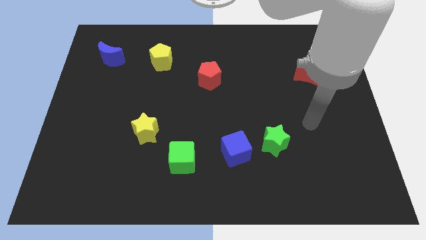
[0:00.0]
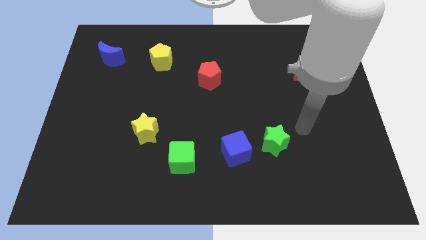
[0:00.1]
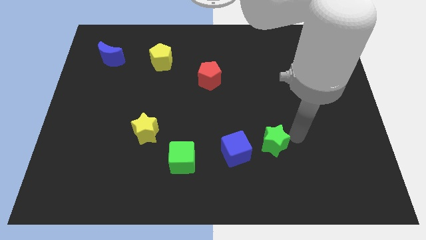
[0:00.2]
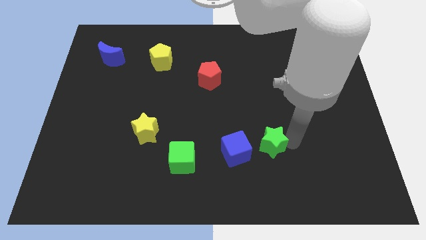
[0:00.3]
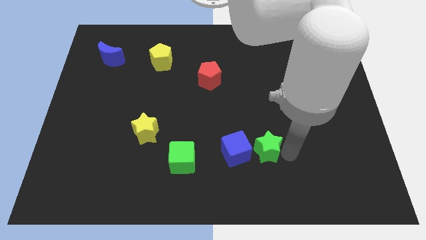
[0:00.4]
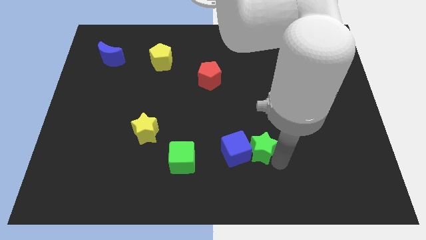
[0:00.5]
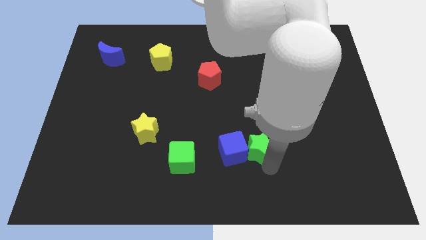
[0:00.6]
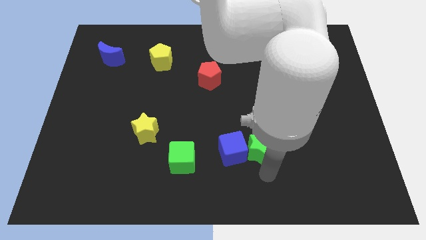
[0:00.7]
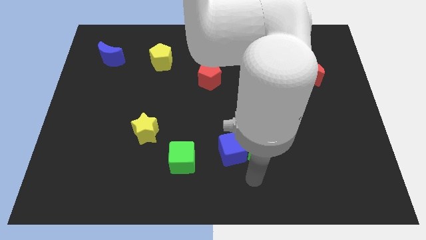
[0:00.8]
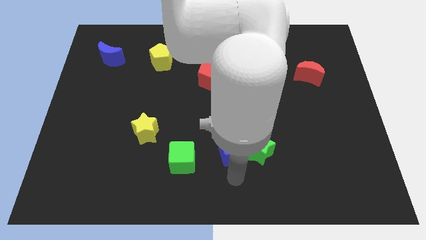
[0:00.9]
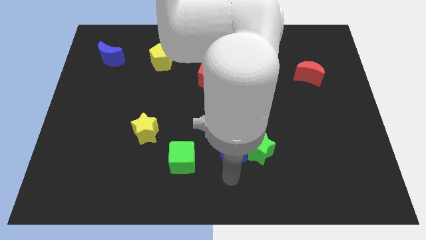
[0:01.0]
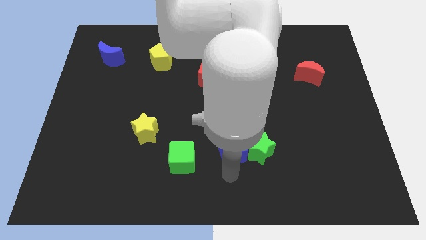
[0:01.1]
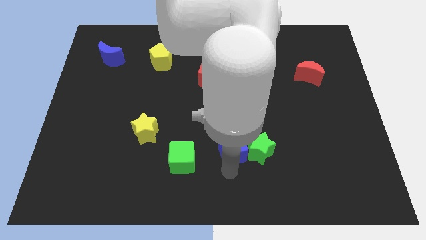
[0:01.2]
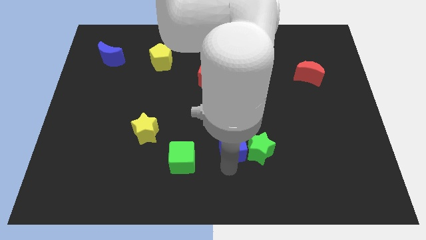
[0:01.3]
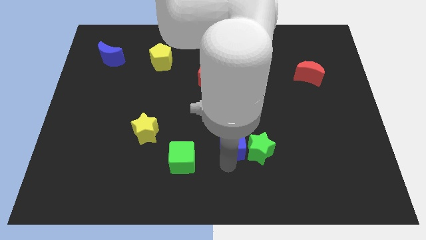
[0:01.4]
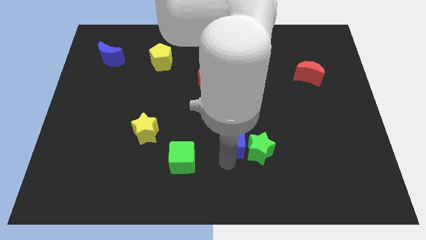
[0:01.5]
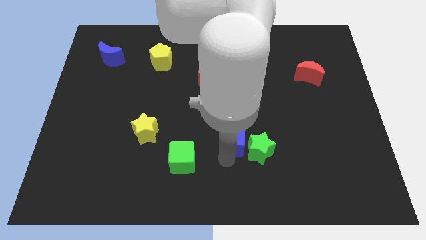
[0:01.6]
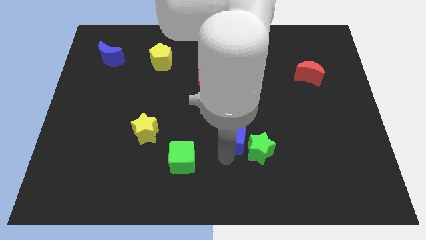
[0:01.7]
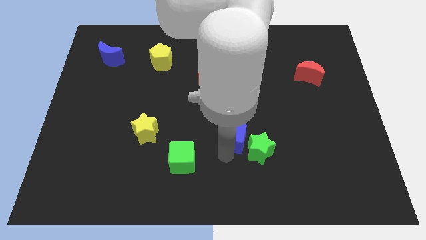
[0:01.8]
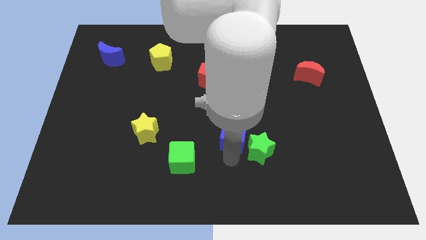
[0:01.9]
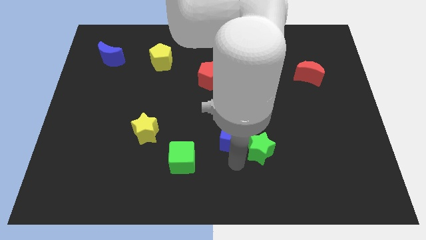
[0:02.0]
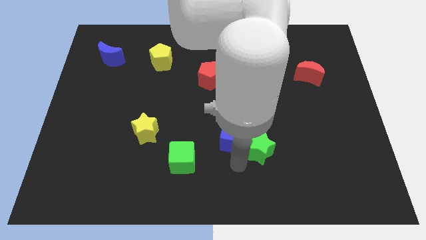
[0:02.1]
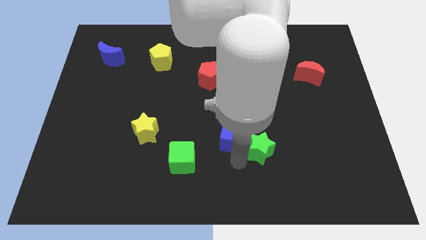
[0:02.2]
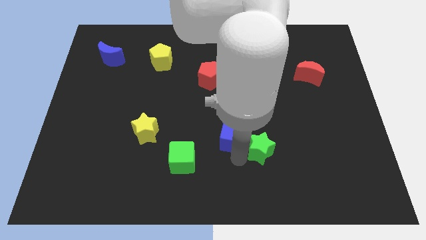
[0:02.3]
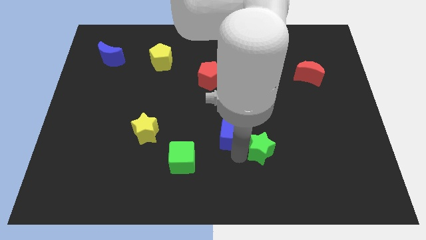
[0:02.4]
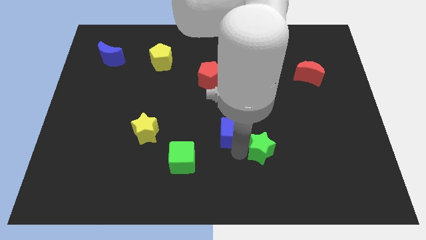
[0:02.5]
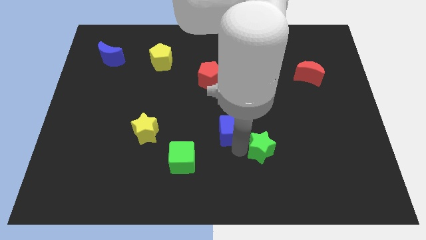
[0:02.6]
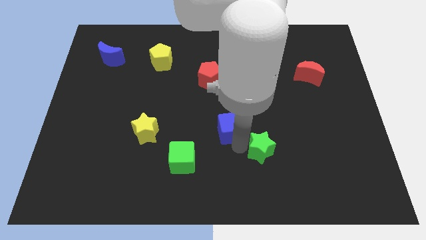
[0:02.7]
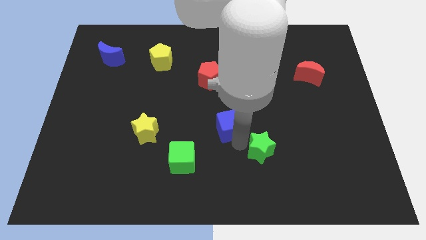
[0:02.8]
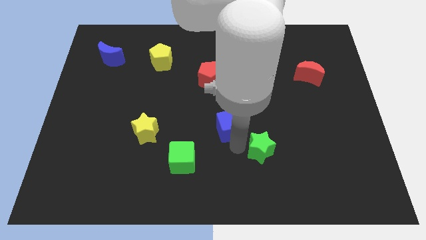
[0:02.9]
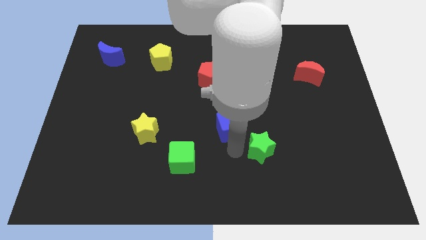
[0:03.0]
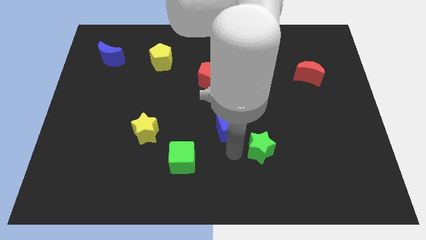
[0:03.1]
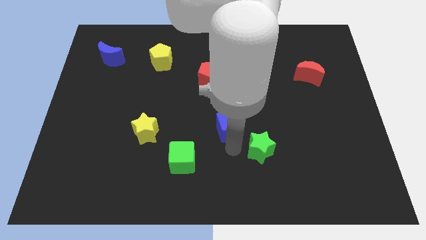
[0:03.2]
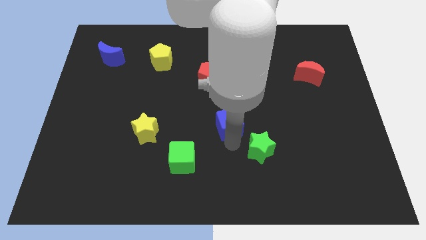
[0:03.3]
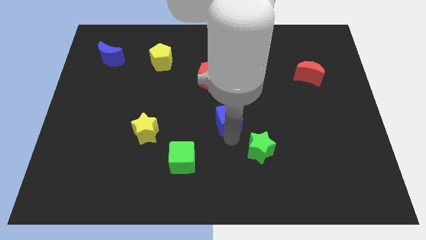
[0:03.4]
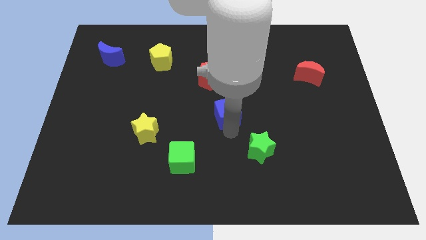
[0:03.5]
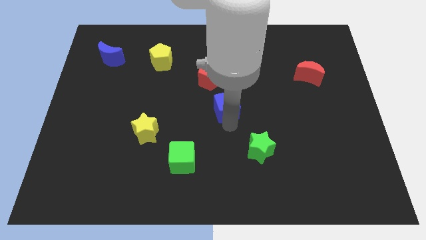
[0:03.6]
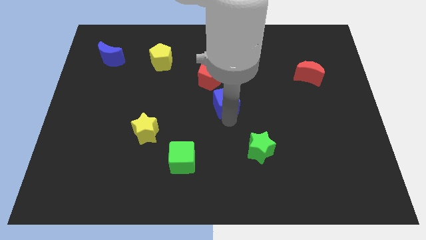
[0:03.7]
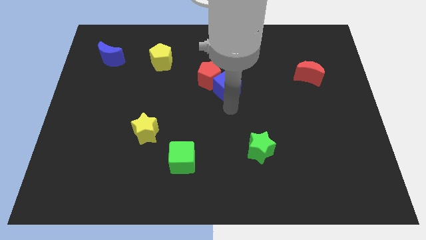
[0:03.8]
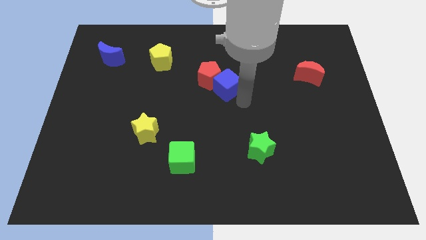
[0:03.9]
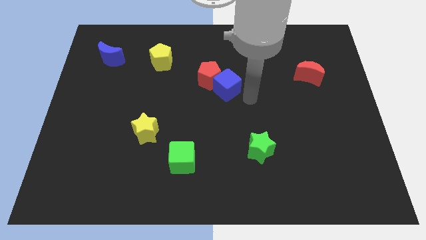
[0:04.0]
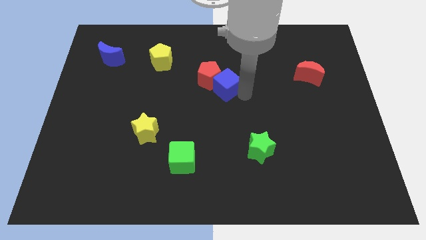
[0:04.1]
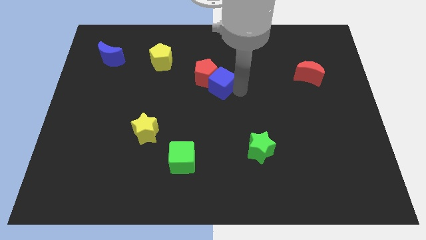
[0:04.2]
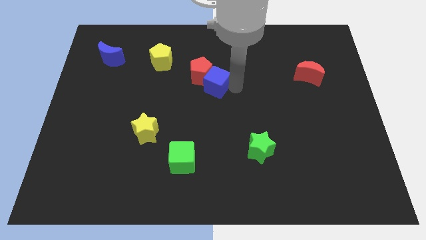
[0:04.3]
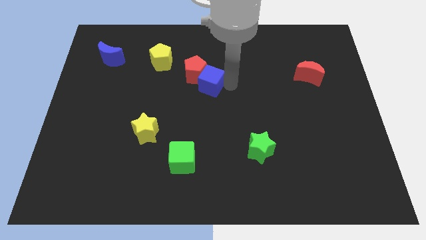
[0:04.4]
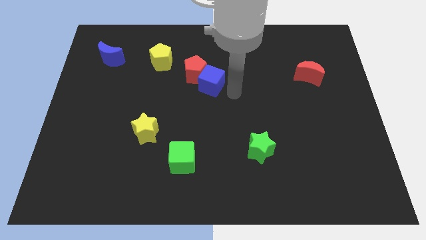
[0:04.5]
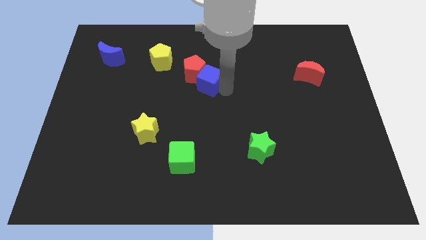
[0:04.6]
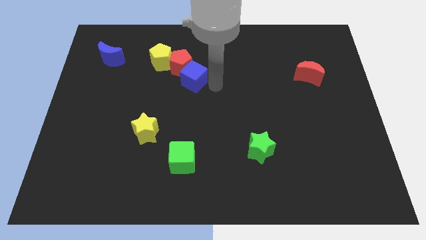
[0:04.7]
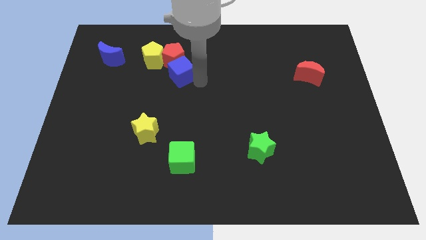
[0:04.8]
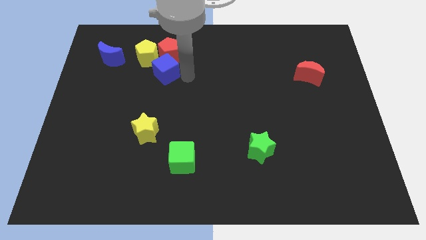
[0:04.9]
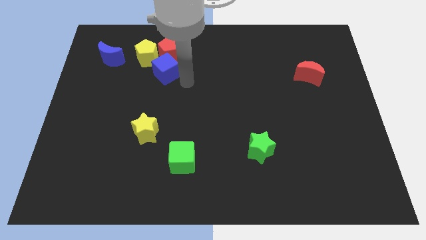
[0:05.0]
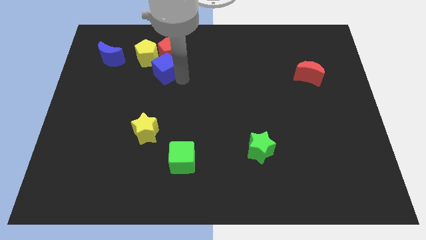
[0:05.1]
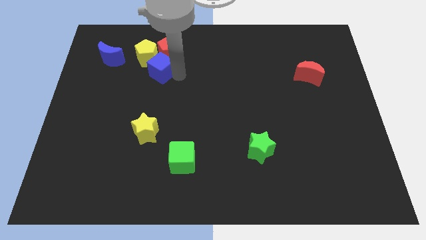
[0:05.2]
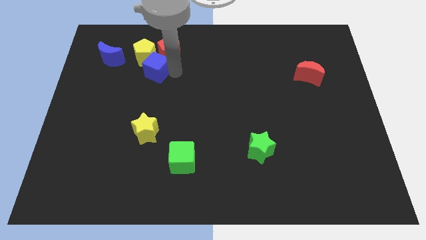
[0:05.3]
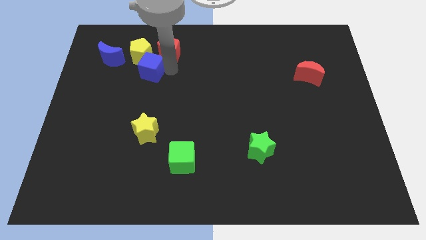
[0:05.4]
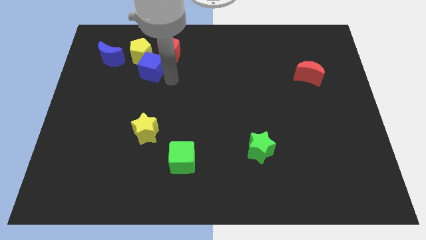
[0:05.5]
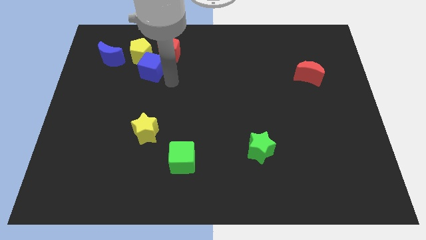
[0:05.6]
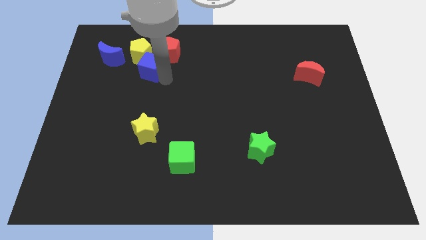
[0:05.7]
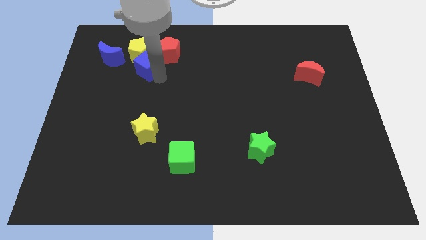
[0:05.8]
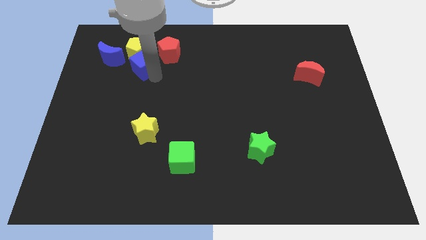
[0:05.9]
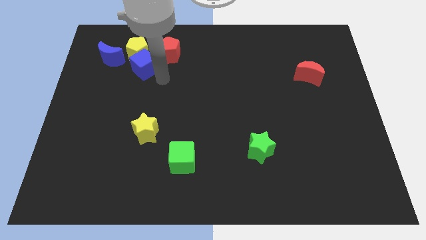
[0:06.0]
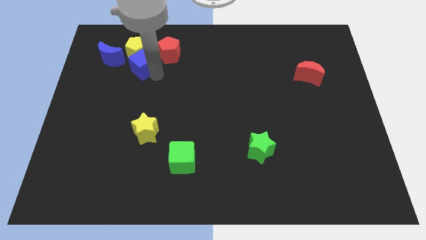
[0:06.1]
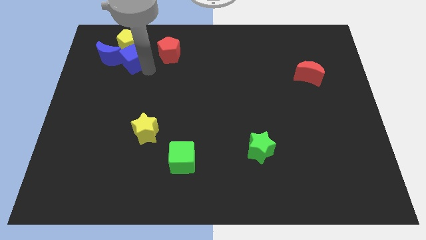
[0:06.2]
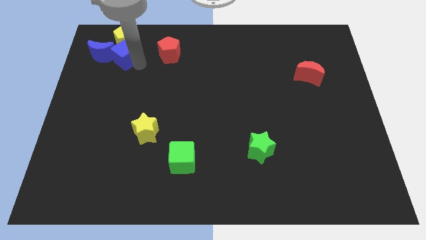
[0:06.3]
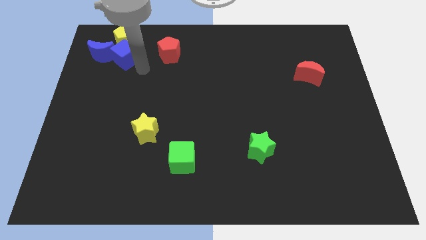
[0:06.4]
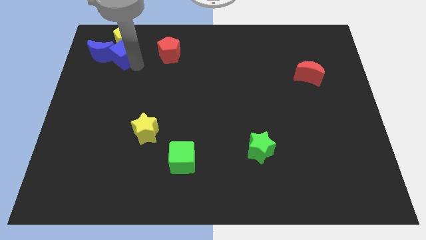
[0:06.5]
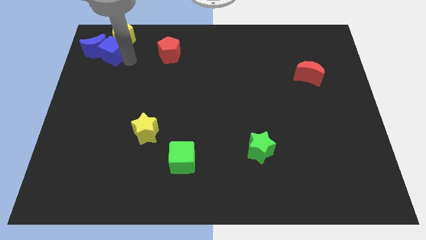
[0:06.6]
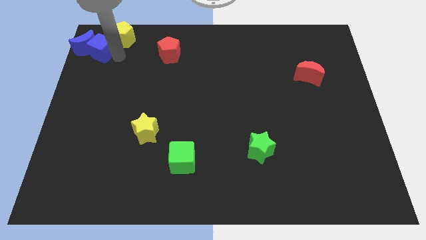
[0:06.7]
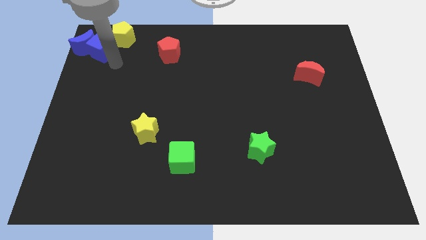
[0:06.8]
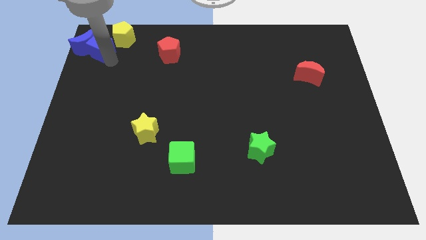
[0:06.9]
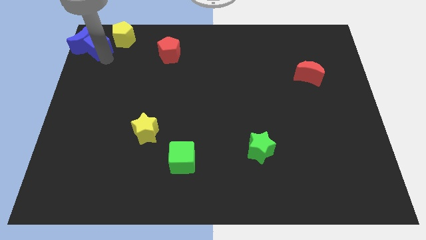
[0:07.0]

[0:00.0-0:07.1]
push the blue cube to the top left of the board
